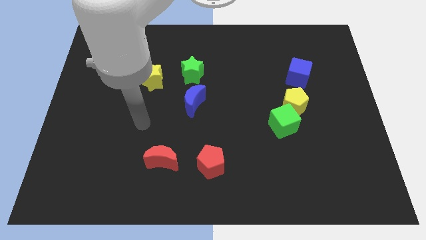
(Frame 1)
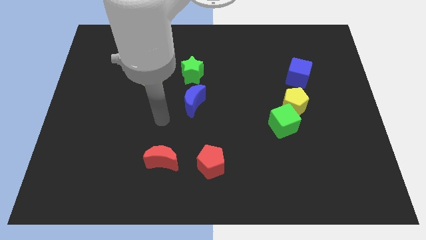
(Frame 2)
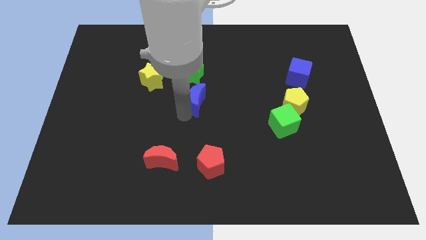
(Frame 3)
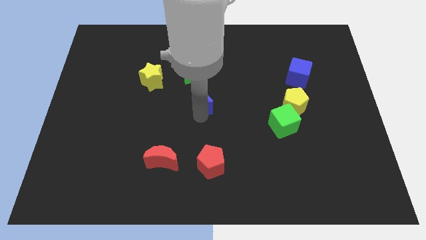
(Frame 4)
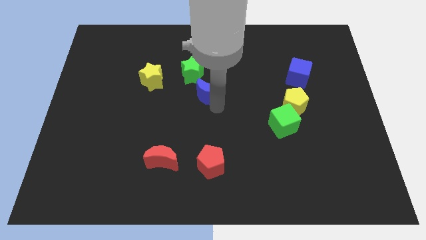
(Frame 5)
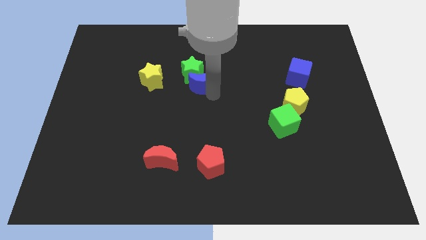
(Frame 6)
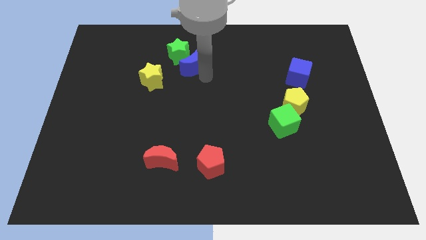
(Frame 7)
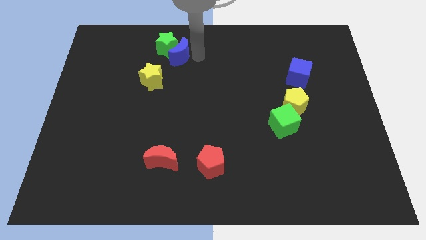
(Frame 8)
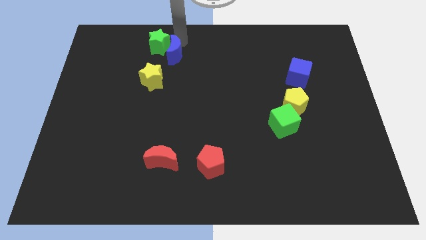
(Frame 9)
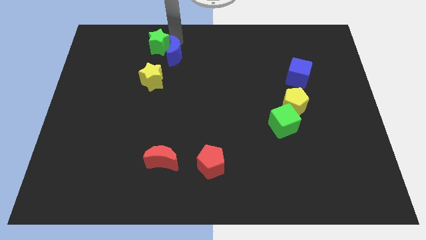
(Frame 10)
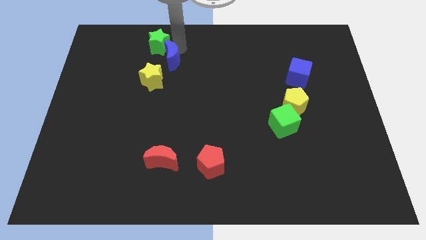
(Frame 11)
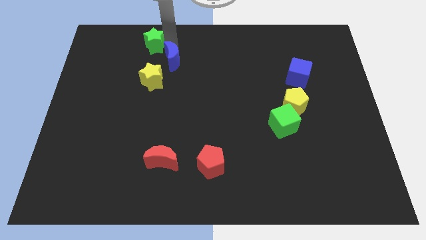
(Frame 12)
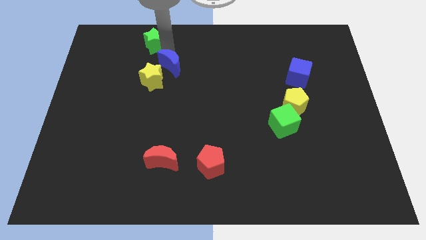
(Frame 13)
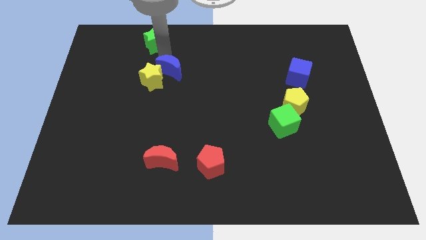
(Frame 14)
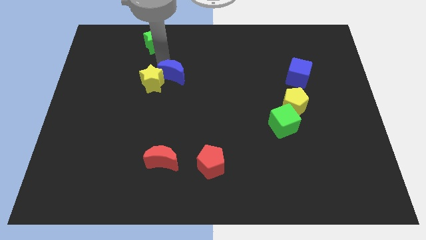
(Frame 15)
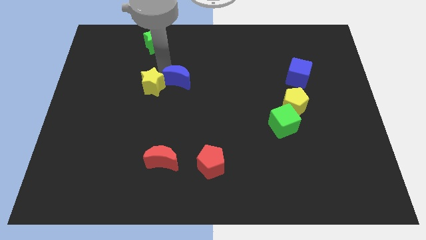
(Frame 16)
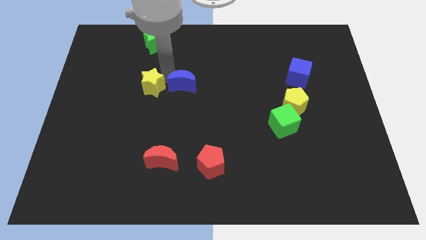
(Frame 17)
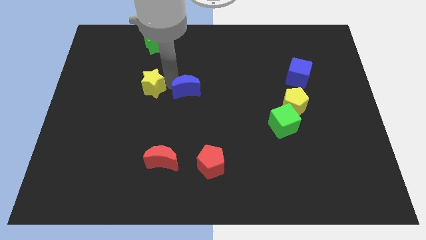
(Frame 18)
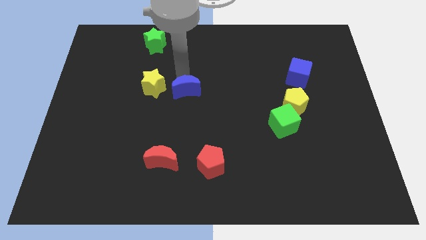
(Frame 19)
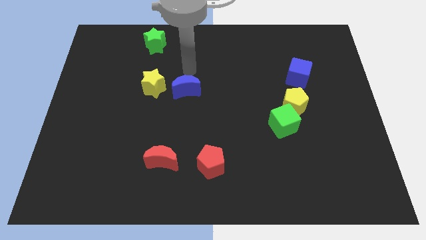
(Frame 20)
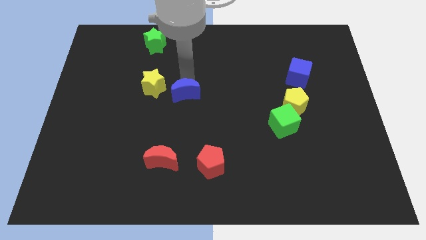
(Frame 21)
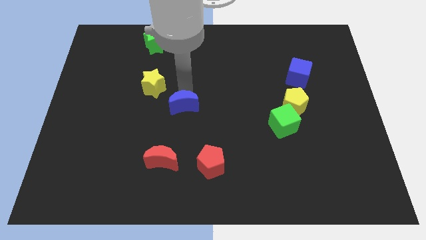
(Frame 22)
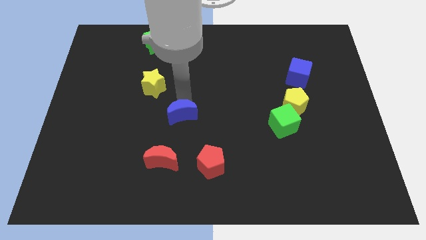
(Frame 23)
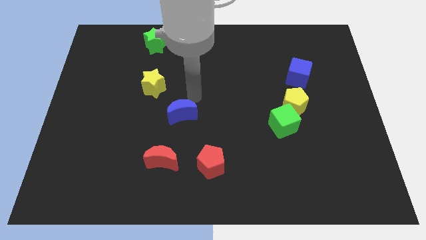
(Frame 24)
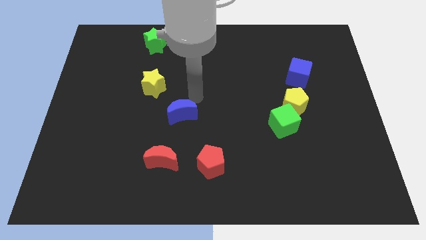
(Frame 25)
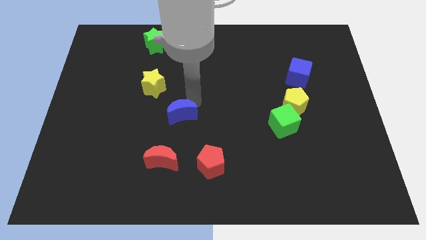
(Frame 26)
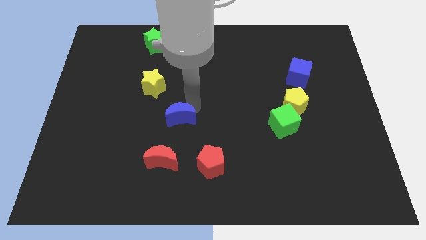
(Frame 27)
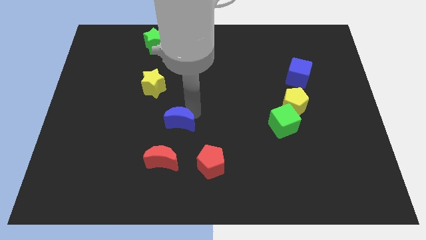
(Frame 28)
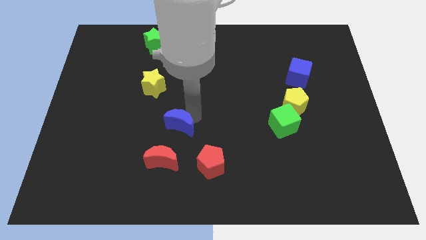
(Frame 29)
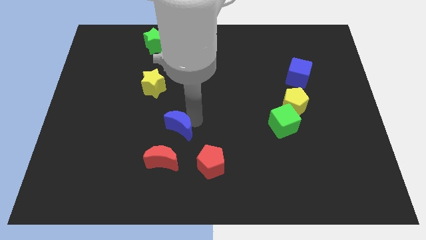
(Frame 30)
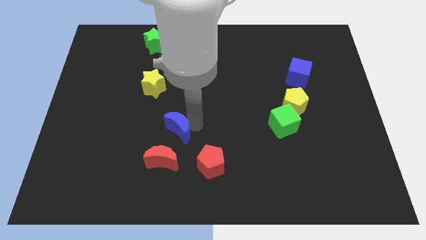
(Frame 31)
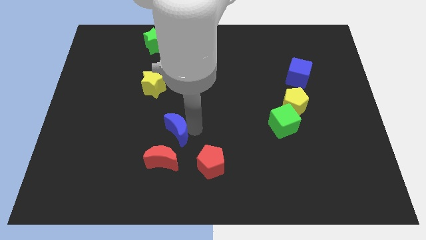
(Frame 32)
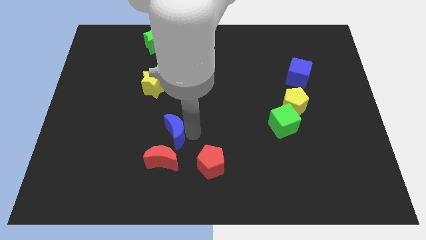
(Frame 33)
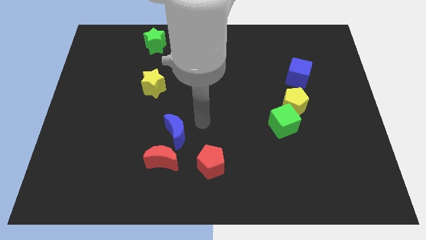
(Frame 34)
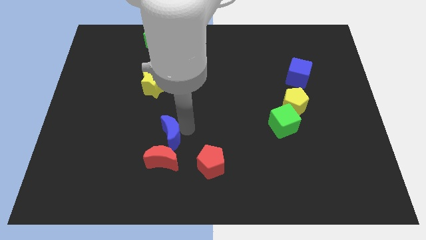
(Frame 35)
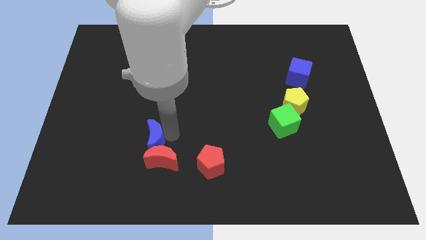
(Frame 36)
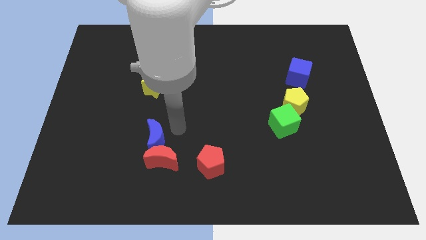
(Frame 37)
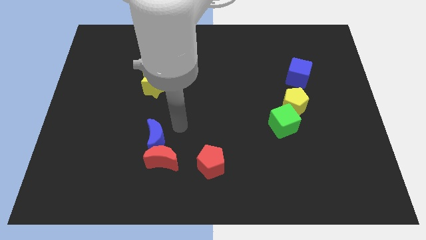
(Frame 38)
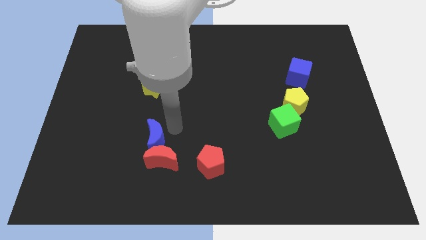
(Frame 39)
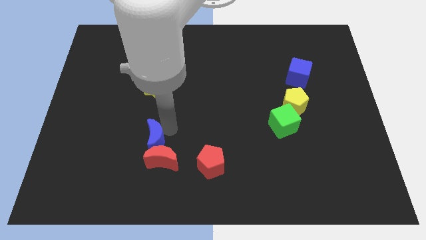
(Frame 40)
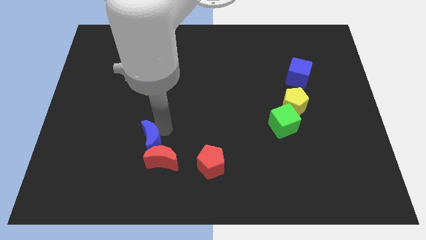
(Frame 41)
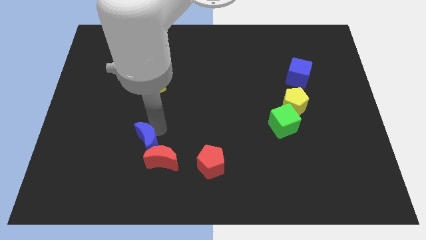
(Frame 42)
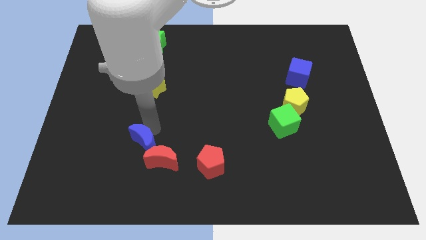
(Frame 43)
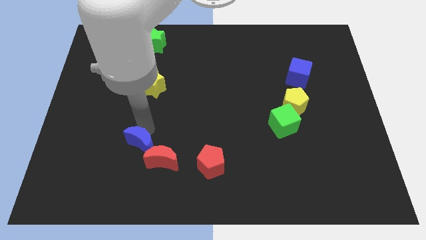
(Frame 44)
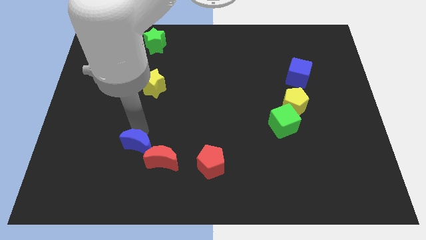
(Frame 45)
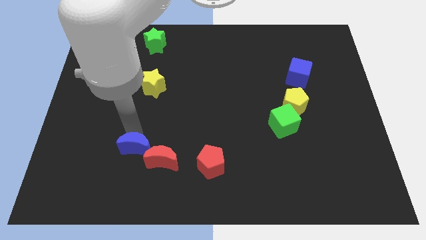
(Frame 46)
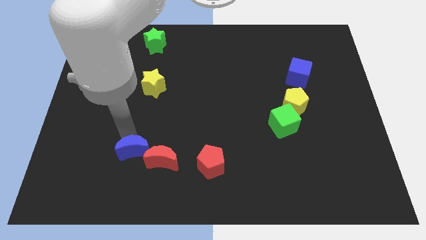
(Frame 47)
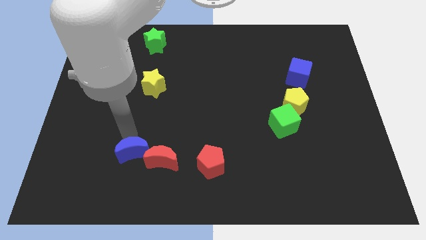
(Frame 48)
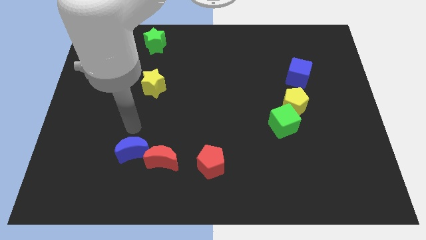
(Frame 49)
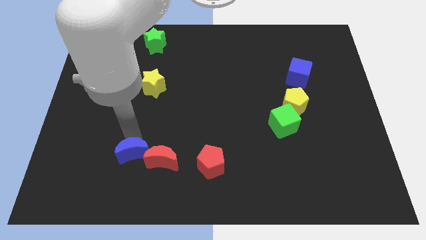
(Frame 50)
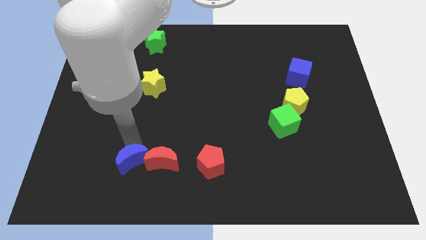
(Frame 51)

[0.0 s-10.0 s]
slide the blue moon to the bottom left side of the red moon

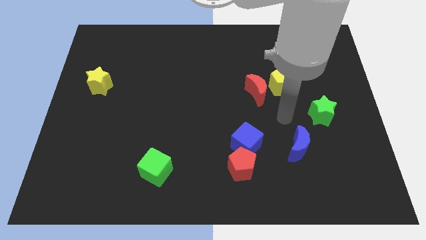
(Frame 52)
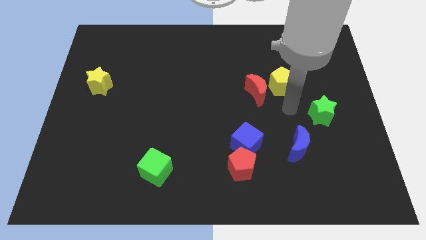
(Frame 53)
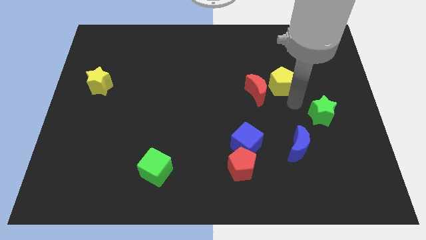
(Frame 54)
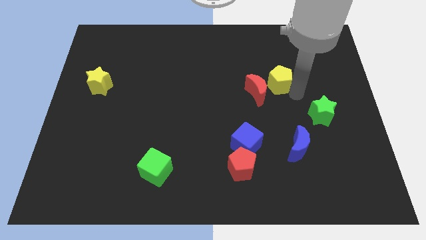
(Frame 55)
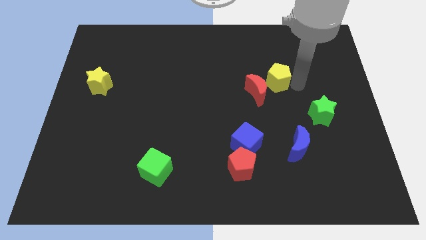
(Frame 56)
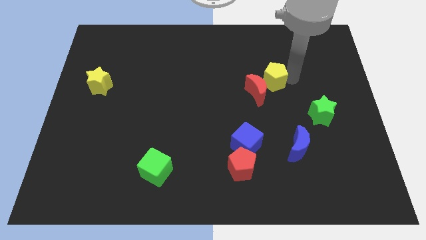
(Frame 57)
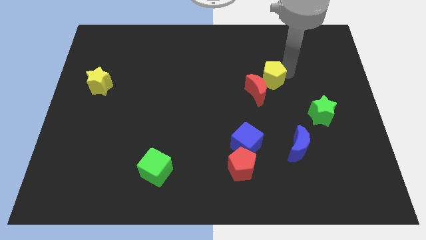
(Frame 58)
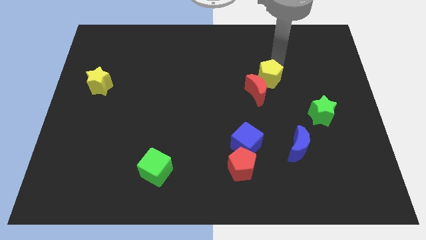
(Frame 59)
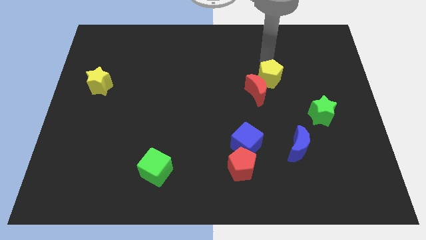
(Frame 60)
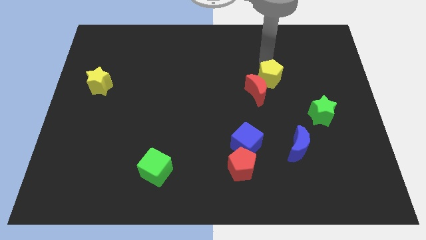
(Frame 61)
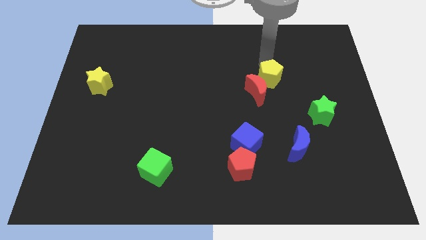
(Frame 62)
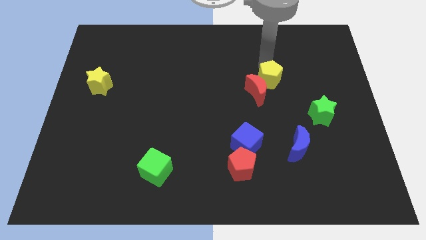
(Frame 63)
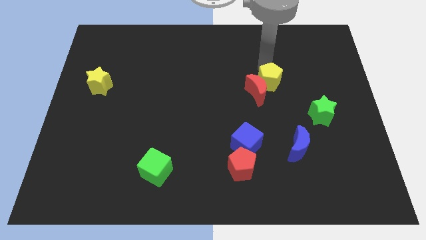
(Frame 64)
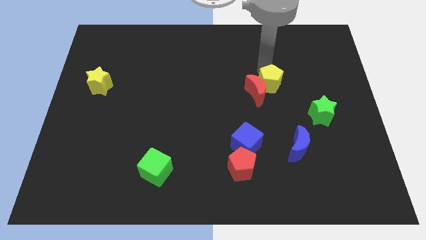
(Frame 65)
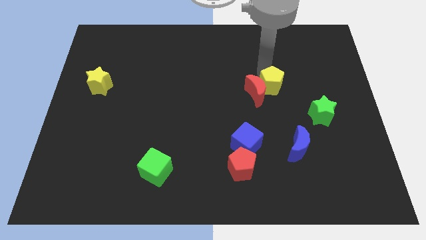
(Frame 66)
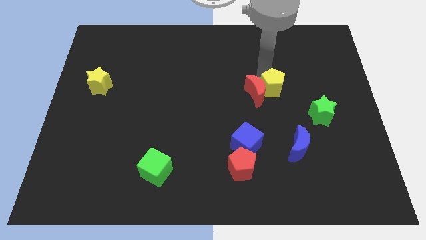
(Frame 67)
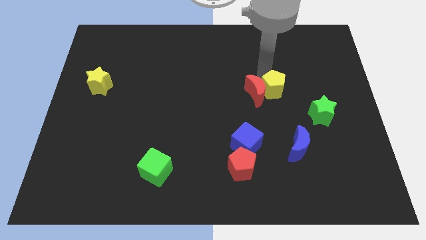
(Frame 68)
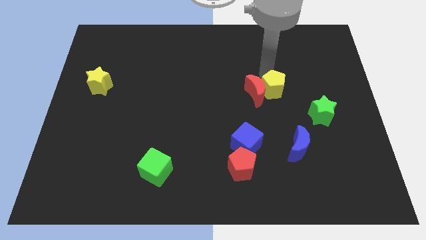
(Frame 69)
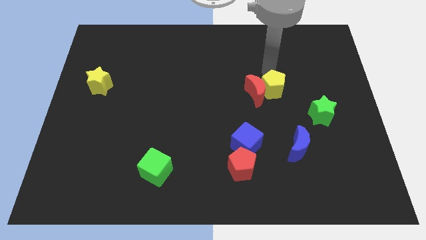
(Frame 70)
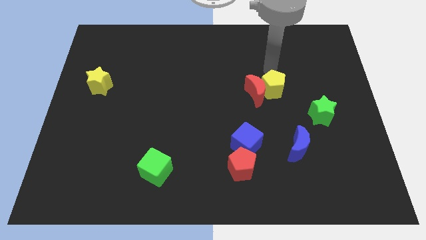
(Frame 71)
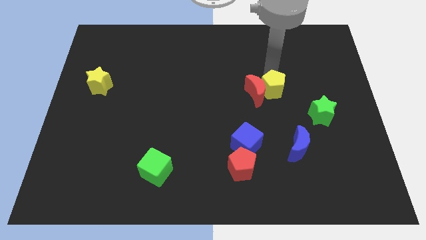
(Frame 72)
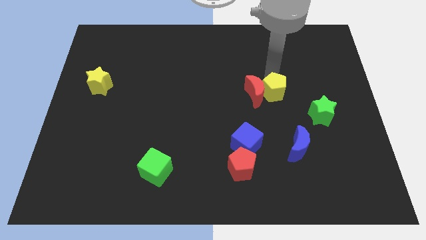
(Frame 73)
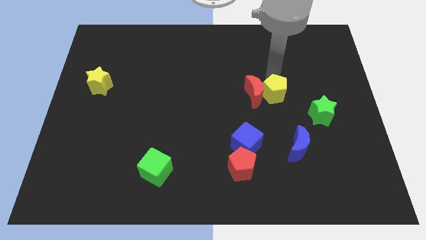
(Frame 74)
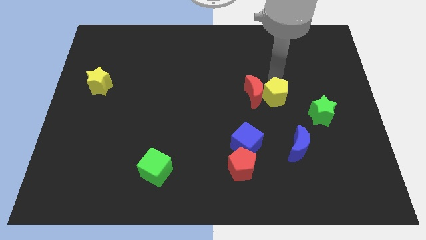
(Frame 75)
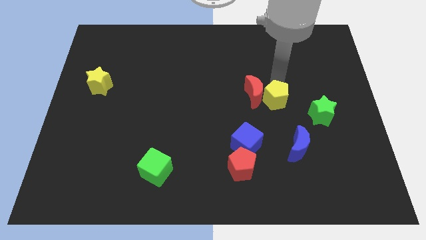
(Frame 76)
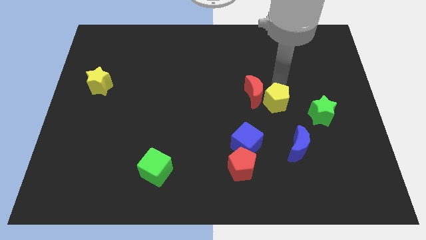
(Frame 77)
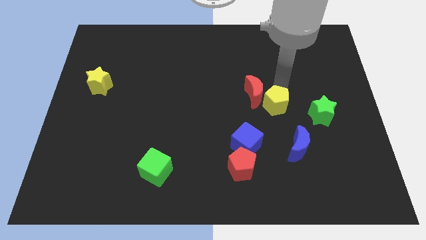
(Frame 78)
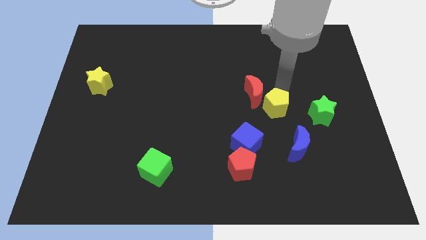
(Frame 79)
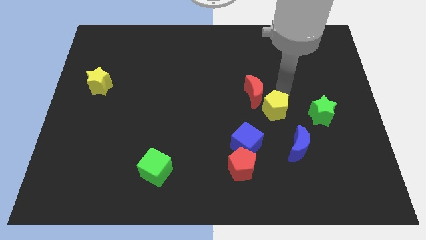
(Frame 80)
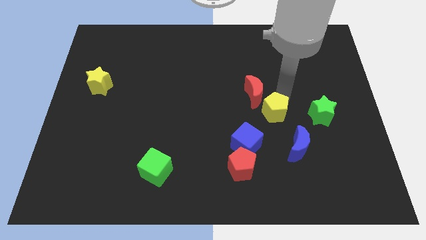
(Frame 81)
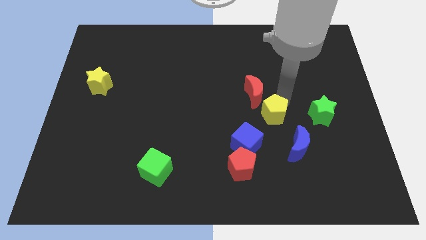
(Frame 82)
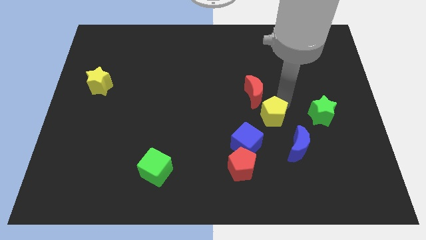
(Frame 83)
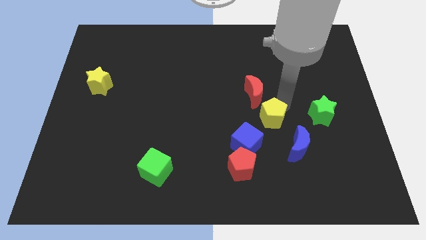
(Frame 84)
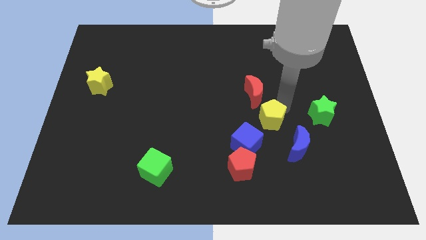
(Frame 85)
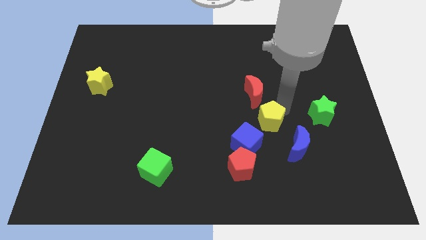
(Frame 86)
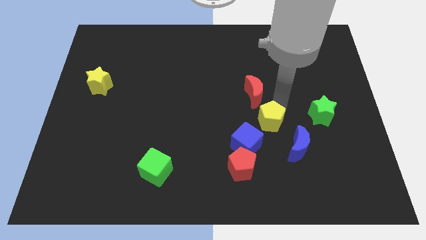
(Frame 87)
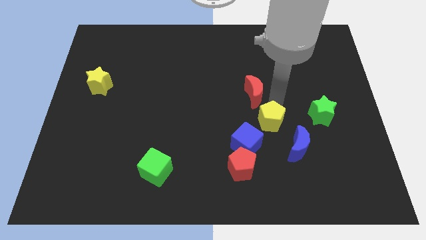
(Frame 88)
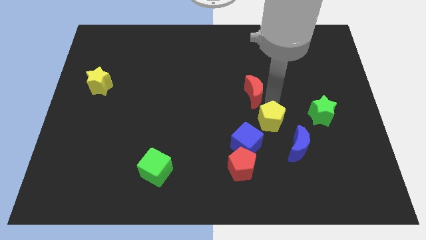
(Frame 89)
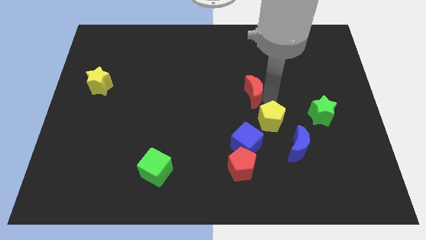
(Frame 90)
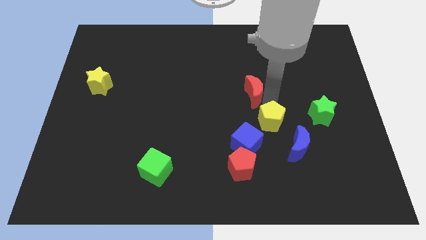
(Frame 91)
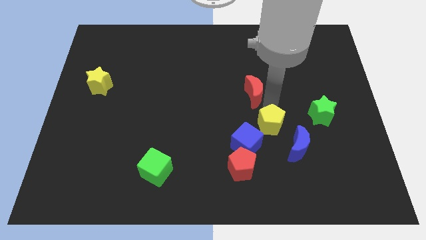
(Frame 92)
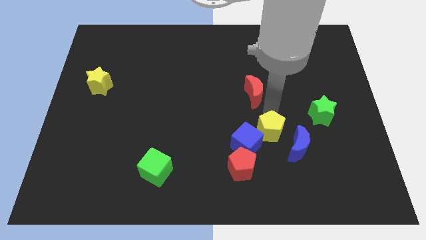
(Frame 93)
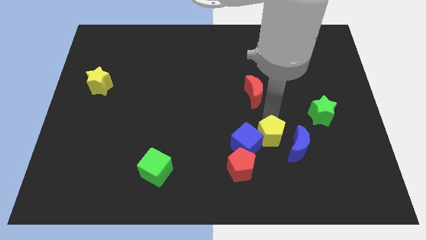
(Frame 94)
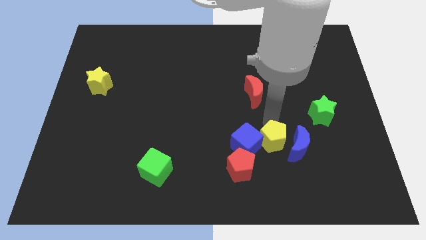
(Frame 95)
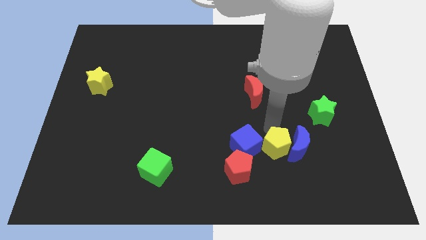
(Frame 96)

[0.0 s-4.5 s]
put the yellow pentagon to the bottom left of the blue moon
